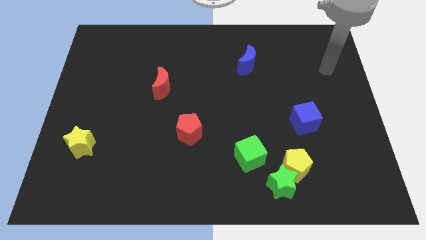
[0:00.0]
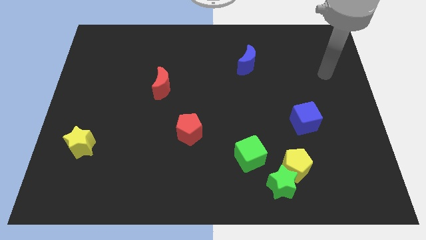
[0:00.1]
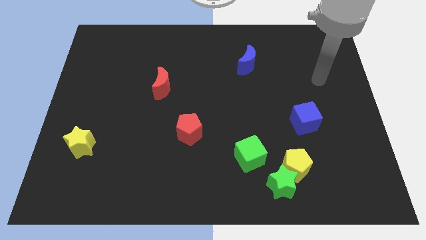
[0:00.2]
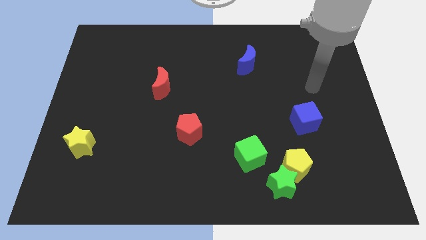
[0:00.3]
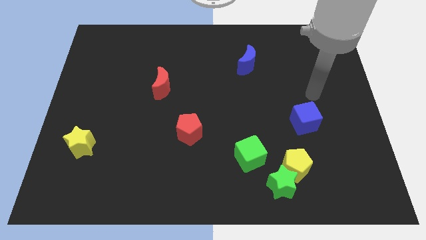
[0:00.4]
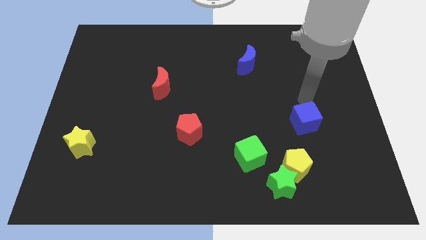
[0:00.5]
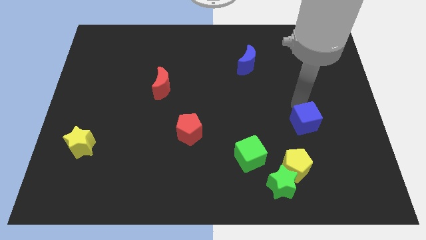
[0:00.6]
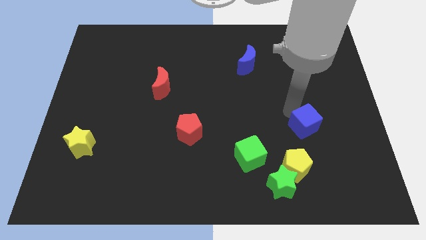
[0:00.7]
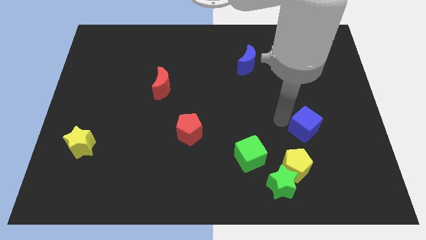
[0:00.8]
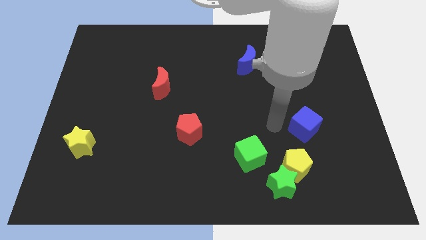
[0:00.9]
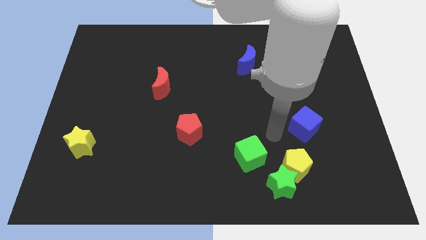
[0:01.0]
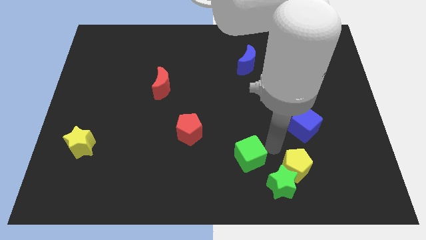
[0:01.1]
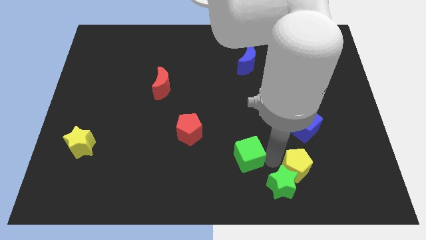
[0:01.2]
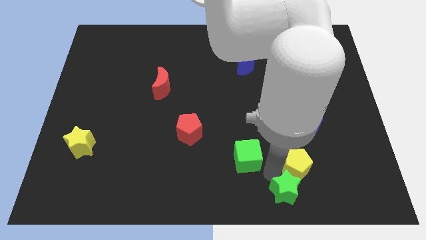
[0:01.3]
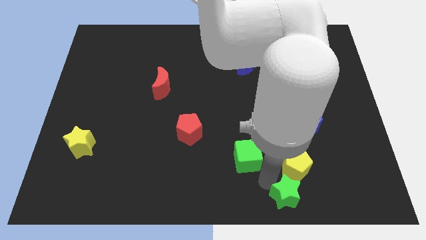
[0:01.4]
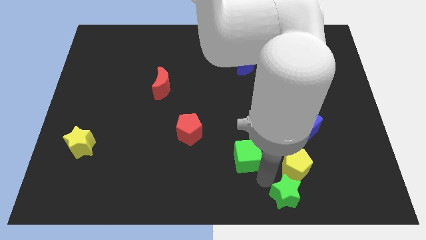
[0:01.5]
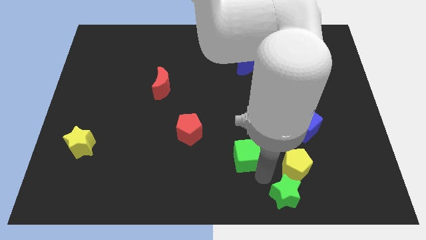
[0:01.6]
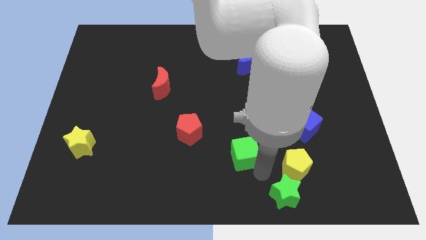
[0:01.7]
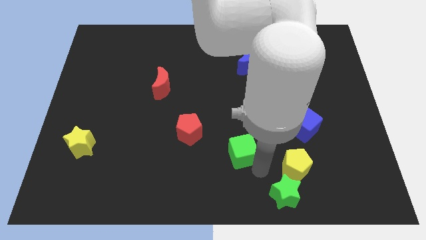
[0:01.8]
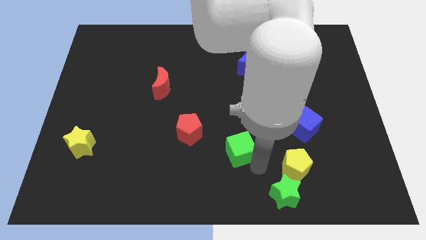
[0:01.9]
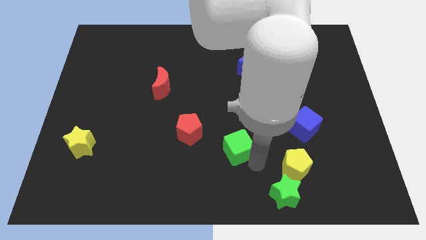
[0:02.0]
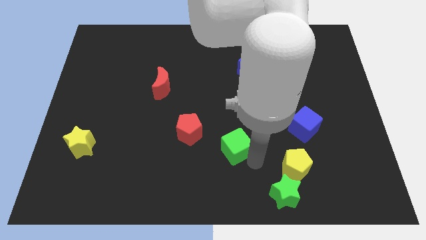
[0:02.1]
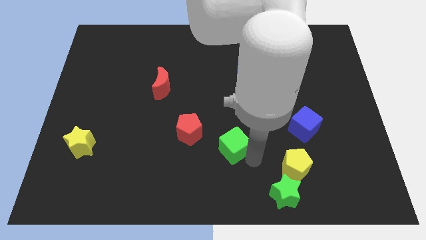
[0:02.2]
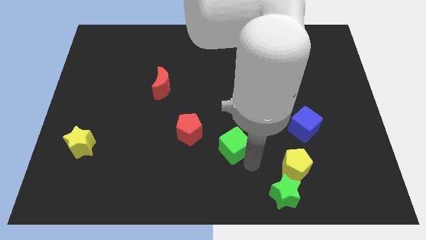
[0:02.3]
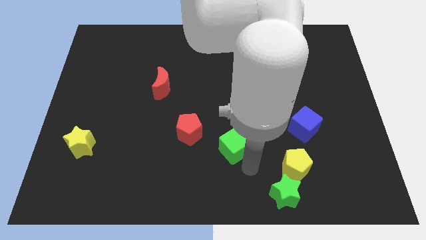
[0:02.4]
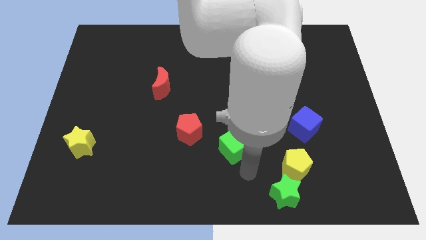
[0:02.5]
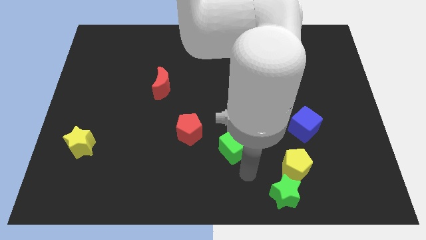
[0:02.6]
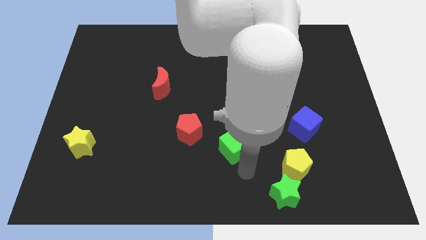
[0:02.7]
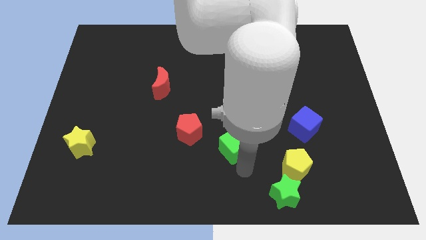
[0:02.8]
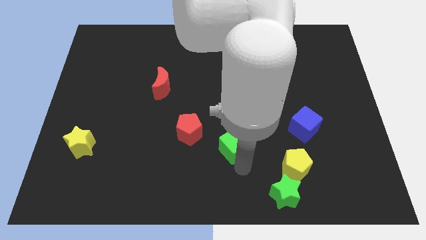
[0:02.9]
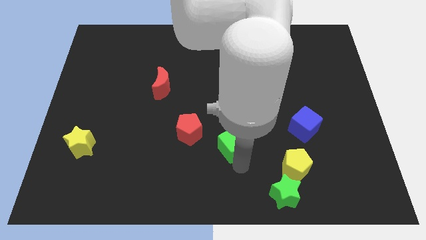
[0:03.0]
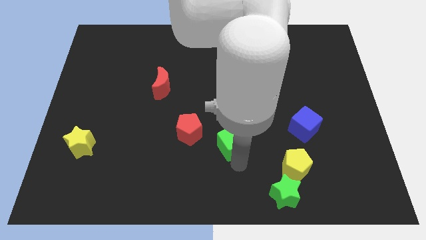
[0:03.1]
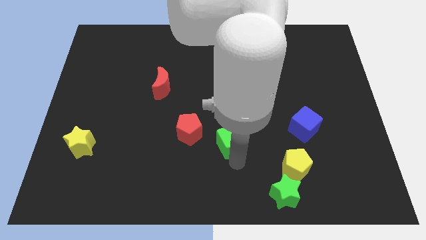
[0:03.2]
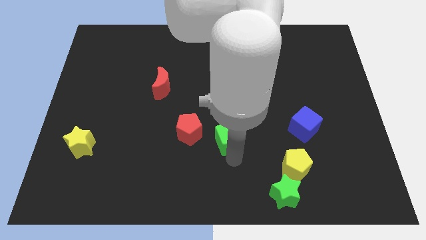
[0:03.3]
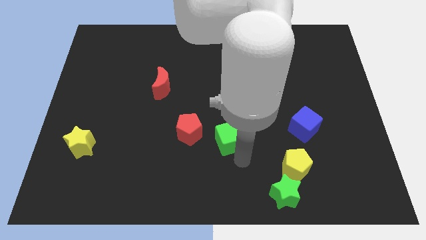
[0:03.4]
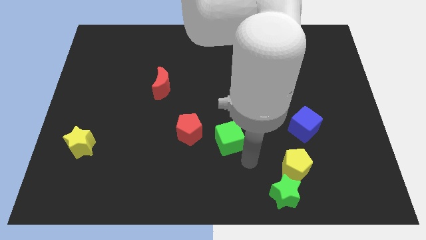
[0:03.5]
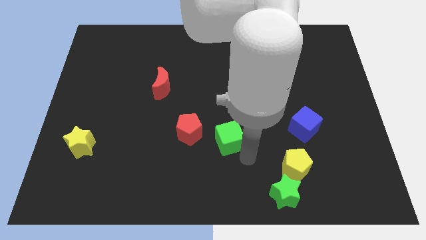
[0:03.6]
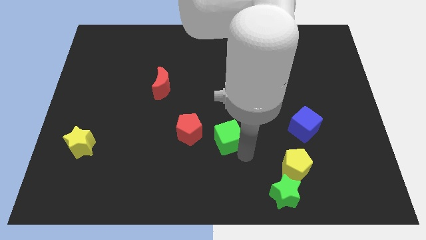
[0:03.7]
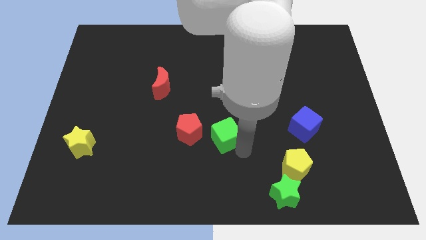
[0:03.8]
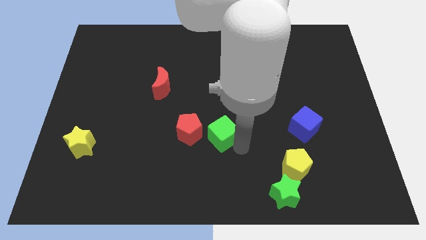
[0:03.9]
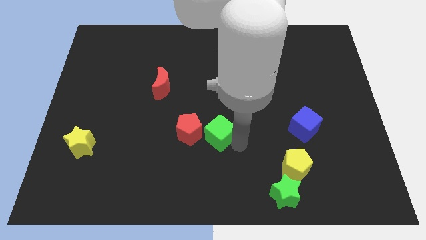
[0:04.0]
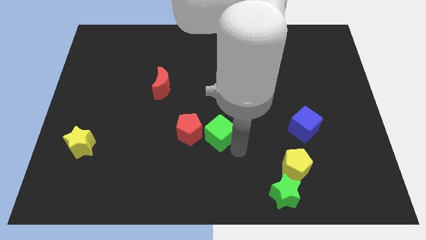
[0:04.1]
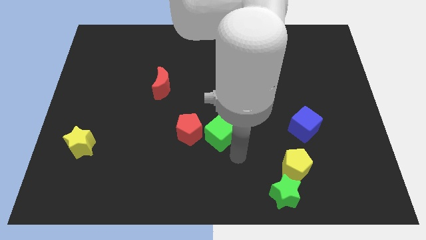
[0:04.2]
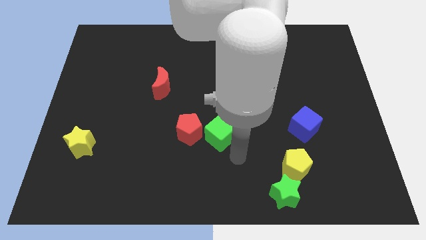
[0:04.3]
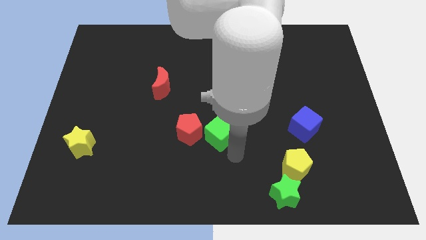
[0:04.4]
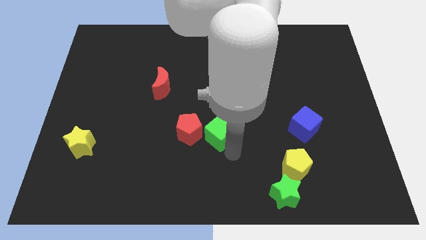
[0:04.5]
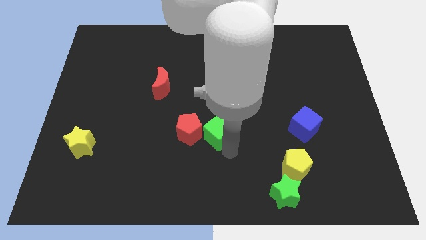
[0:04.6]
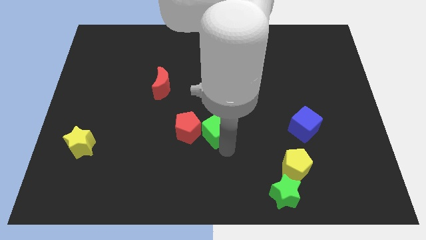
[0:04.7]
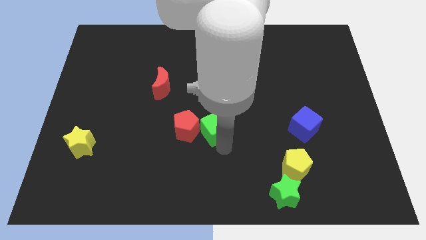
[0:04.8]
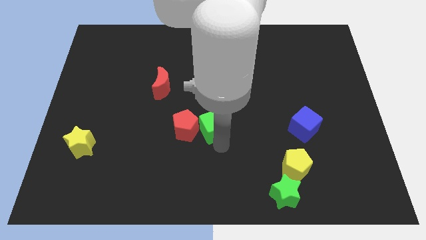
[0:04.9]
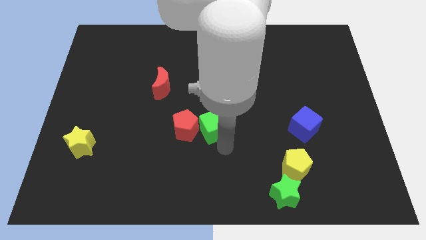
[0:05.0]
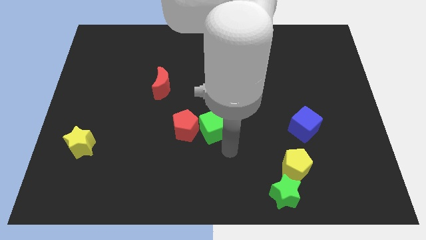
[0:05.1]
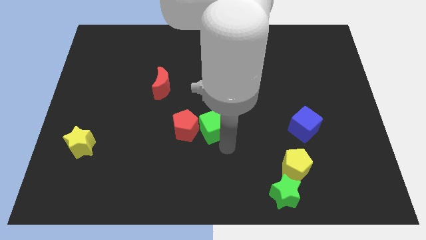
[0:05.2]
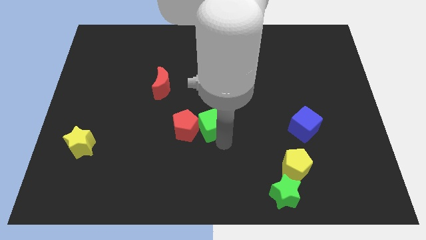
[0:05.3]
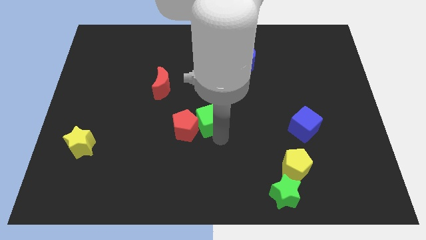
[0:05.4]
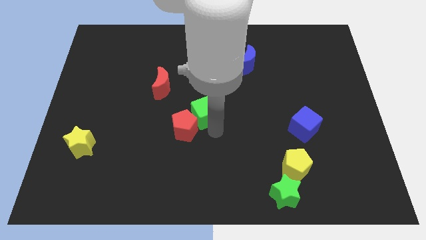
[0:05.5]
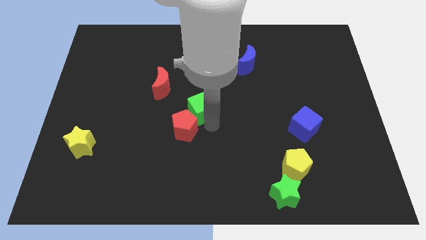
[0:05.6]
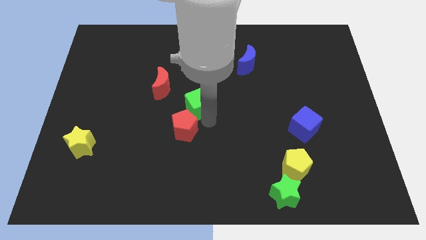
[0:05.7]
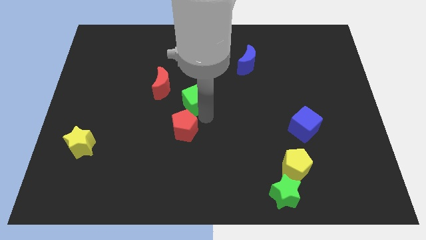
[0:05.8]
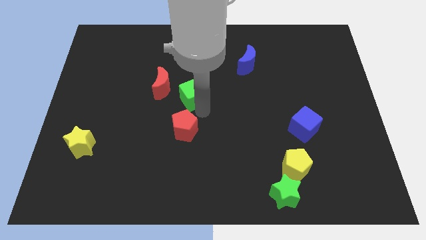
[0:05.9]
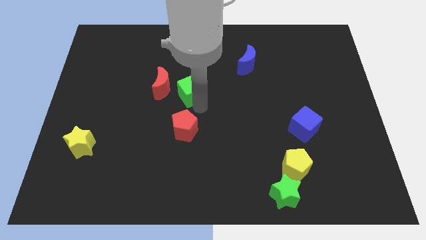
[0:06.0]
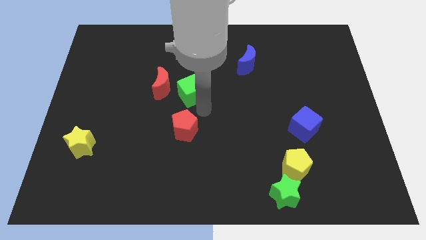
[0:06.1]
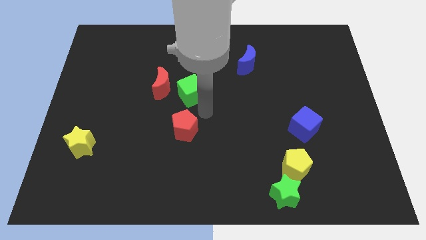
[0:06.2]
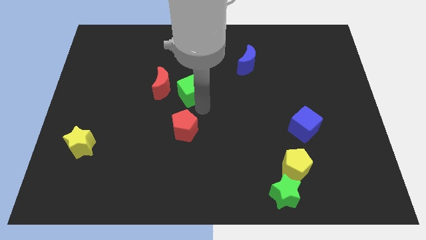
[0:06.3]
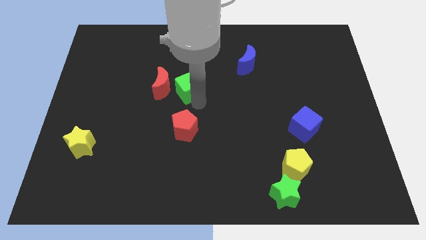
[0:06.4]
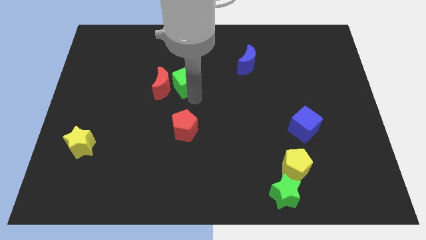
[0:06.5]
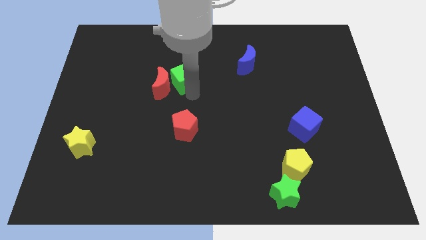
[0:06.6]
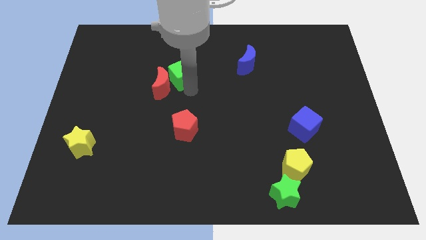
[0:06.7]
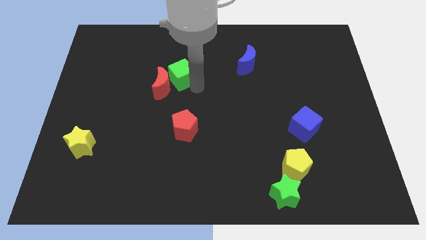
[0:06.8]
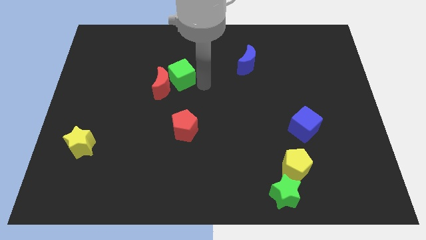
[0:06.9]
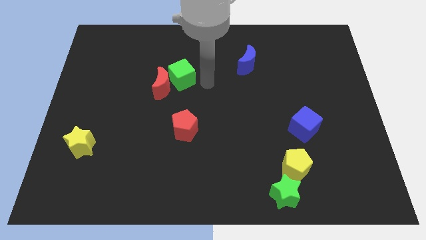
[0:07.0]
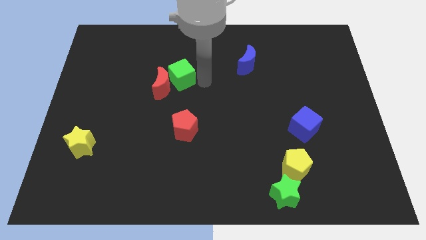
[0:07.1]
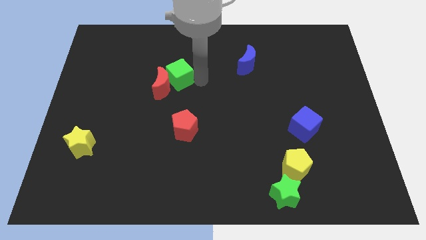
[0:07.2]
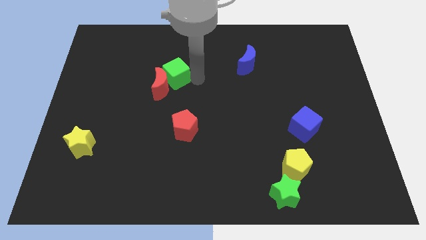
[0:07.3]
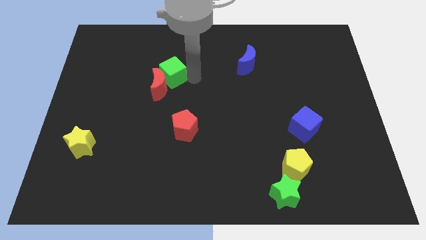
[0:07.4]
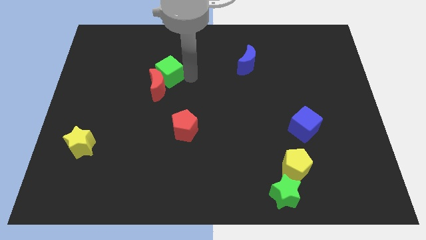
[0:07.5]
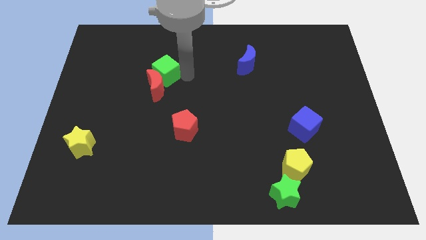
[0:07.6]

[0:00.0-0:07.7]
move the green cube diagonally up and to the left of the red moon
